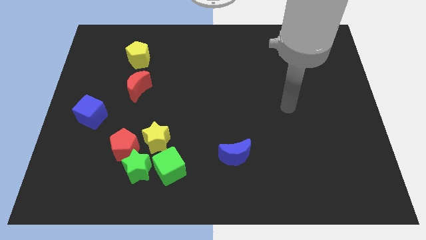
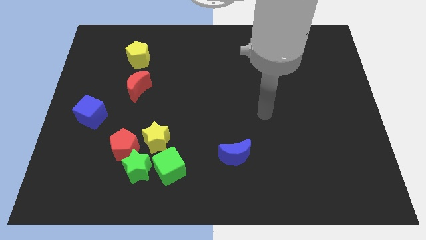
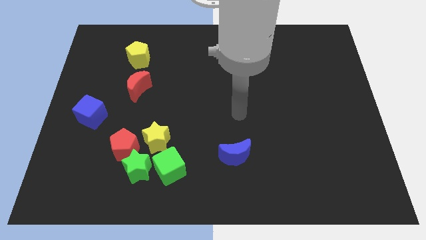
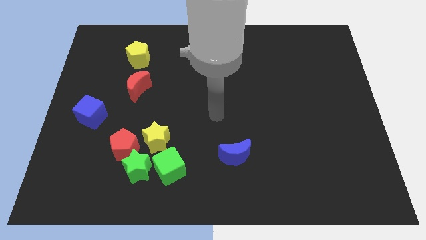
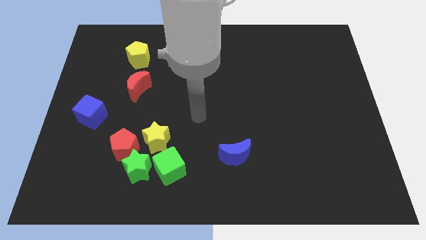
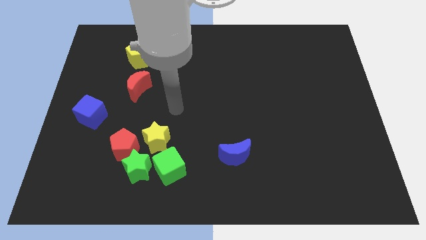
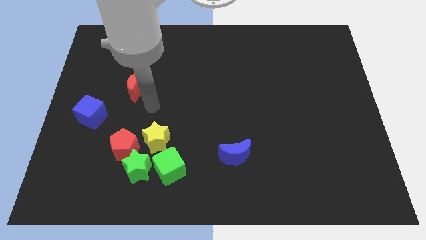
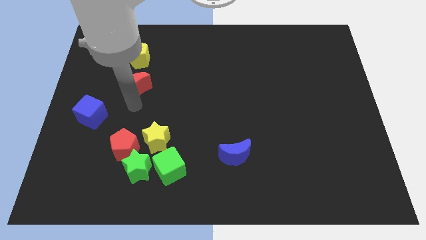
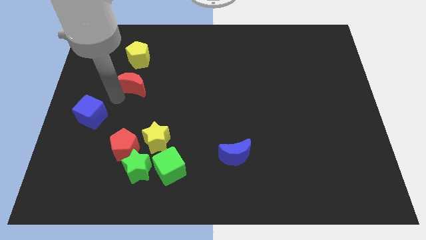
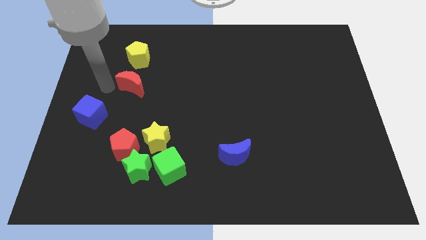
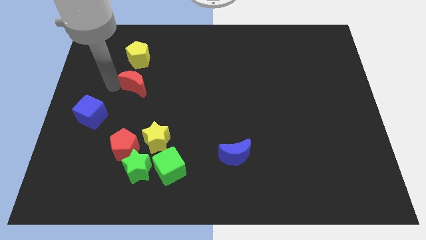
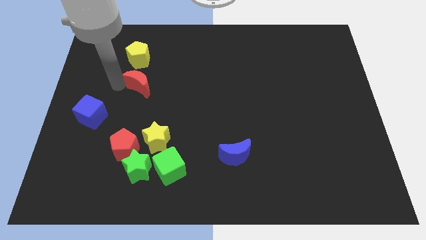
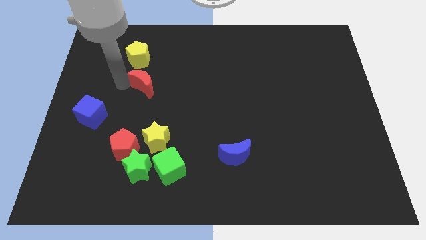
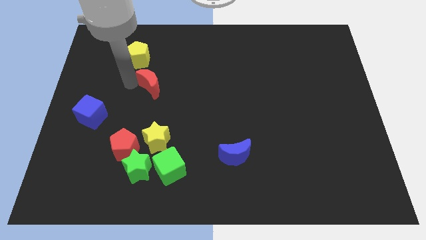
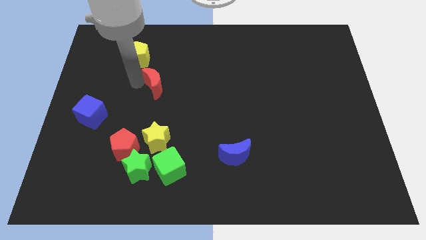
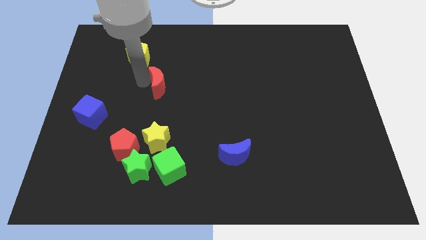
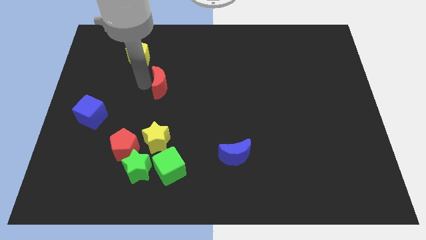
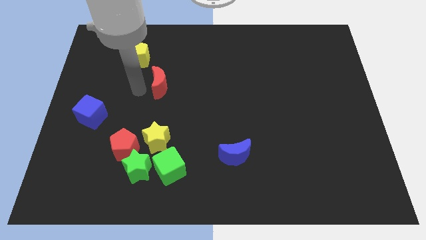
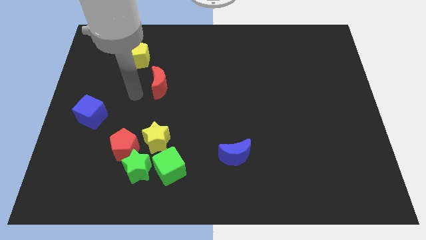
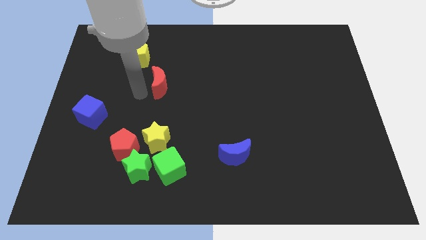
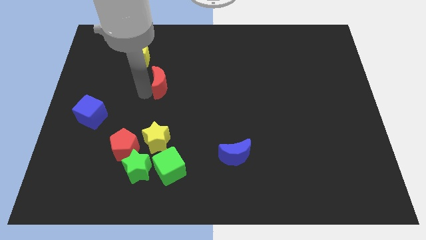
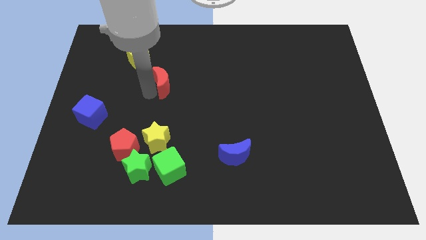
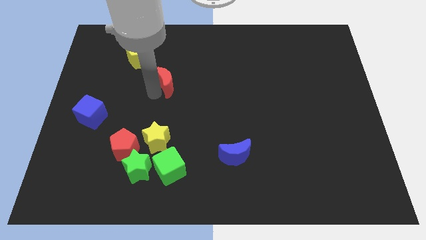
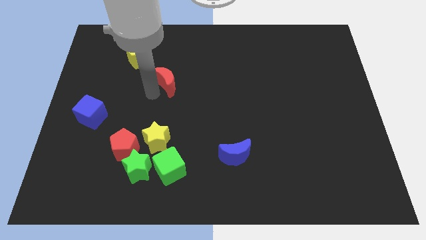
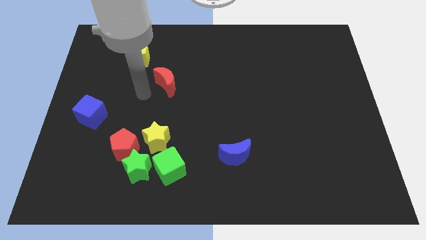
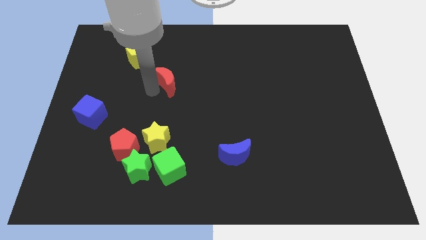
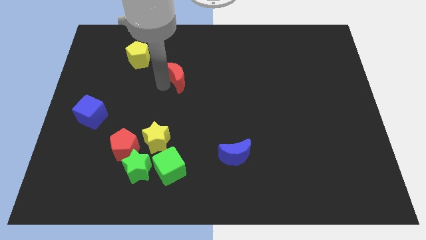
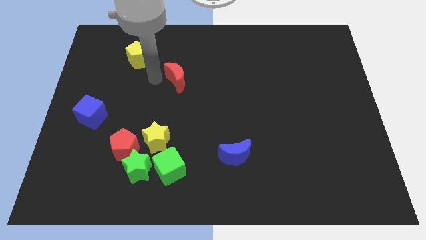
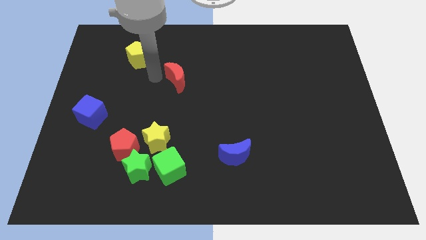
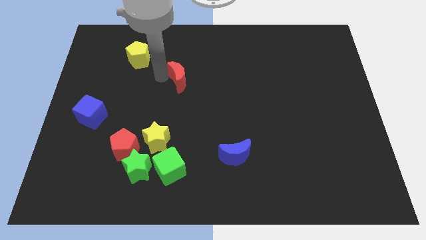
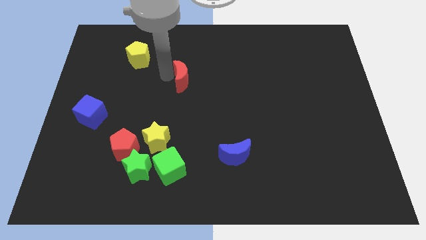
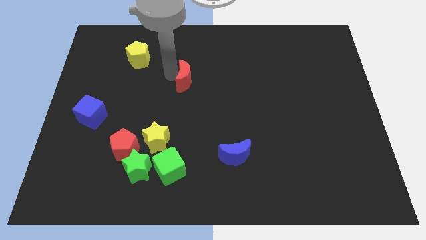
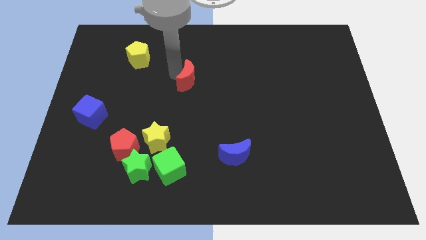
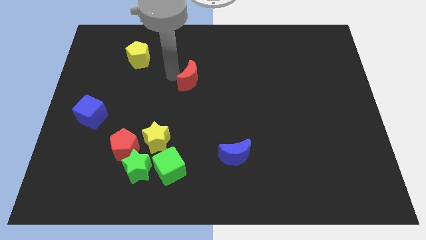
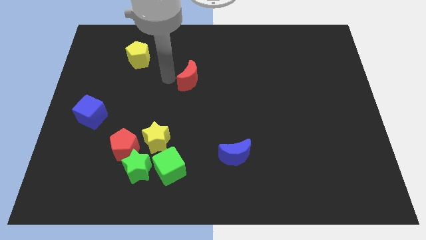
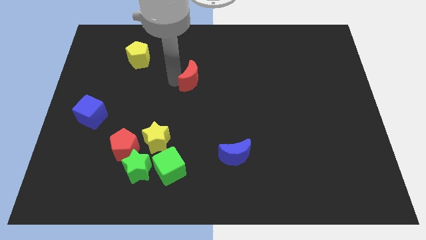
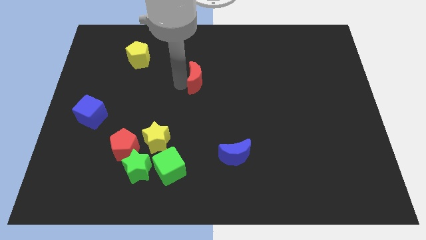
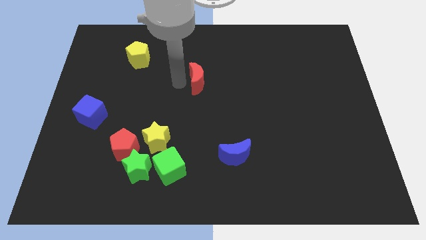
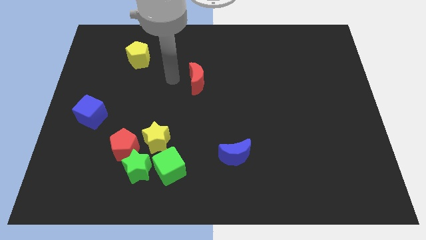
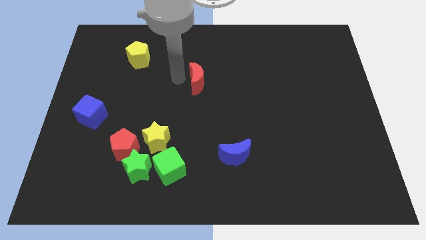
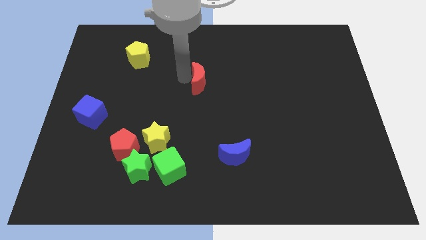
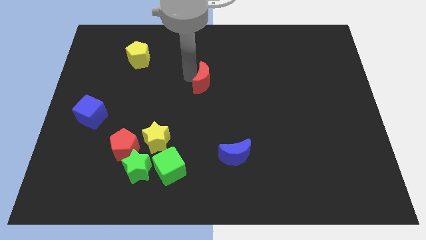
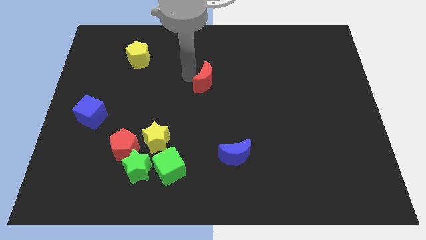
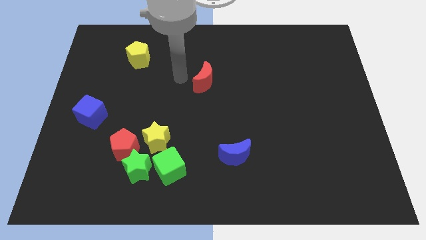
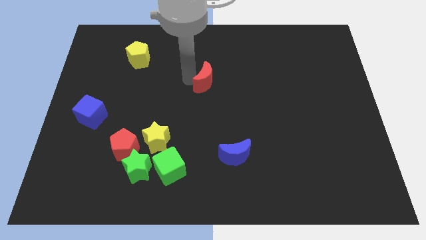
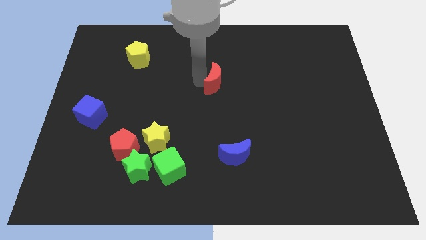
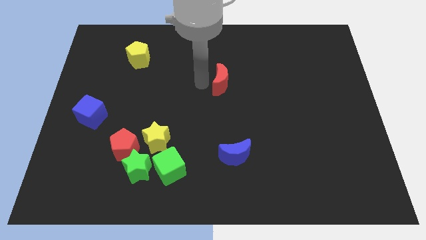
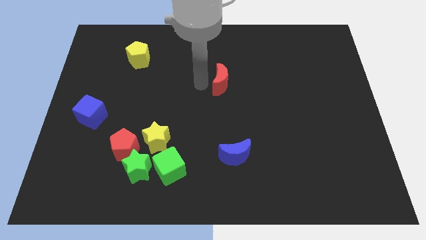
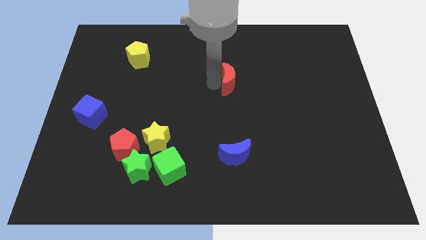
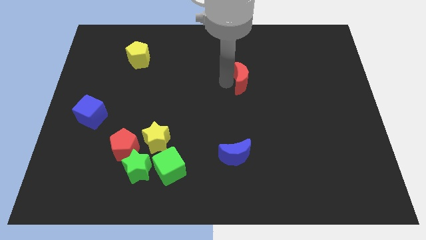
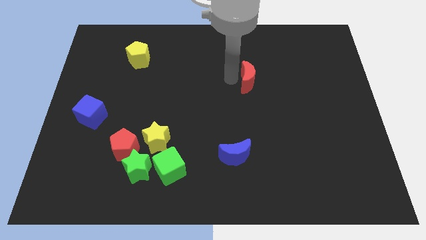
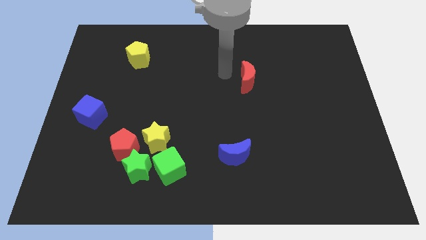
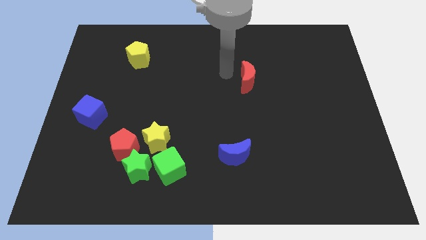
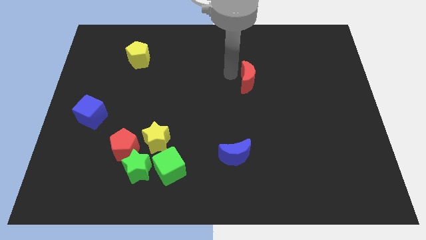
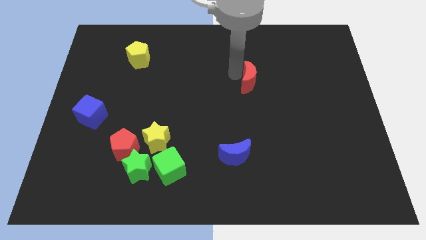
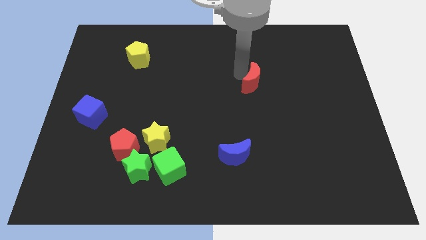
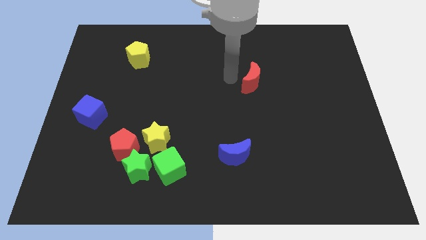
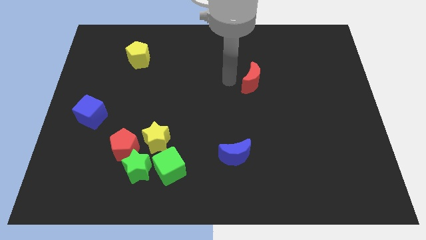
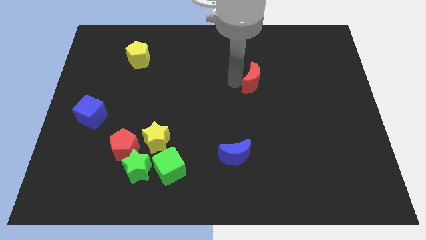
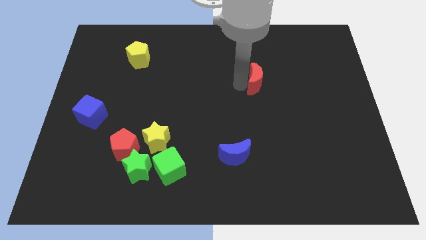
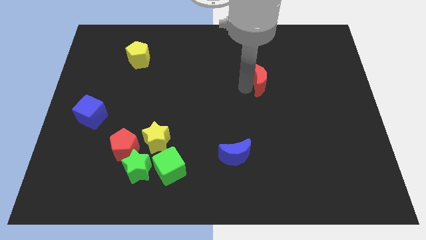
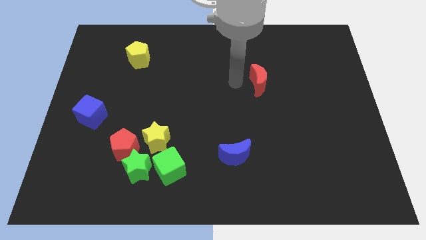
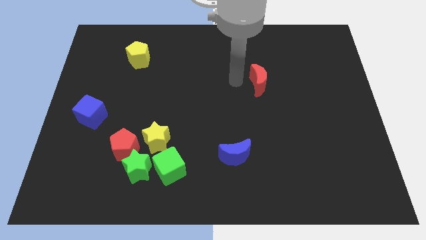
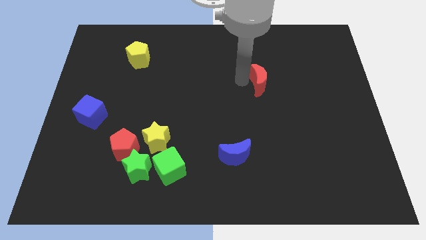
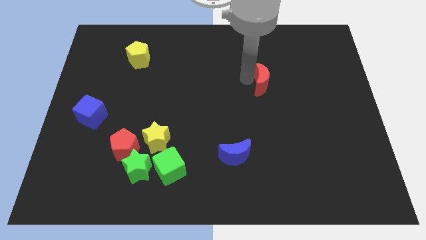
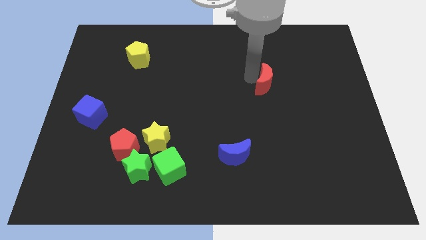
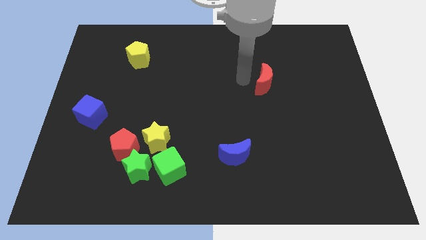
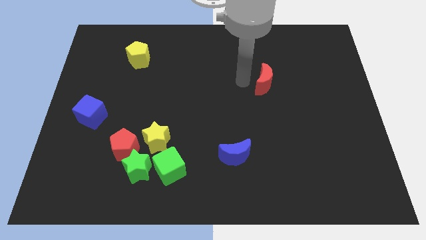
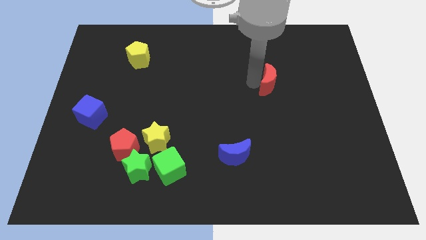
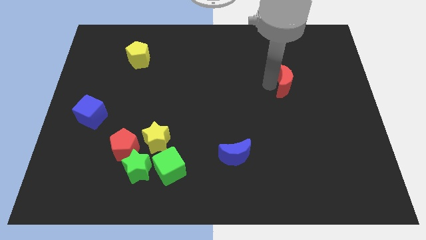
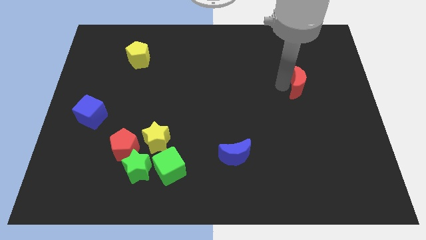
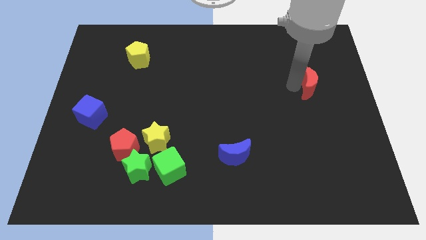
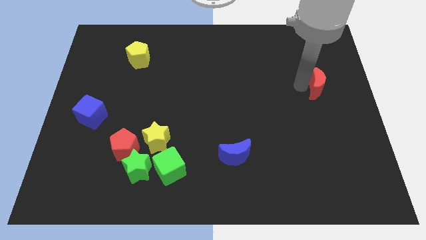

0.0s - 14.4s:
put the red moon to the right side of the board
